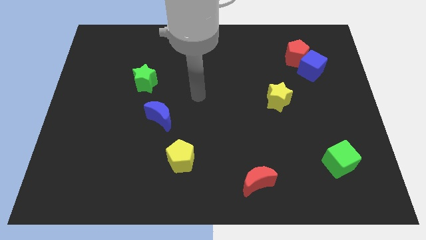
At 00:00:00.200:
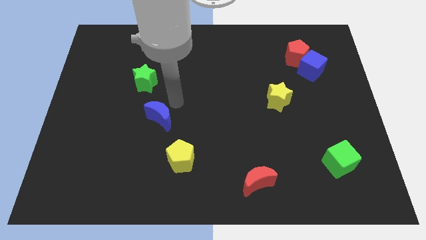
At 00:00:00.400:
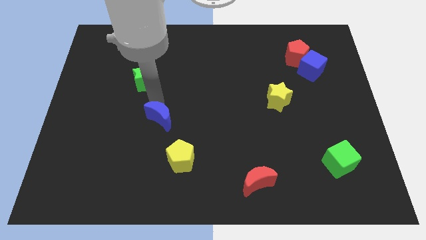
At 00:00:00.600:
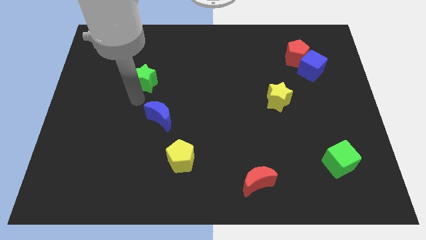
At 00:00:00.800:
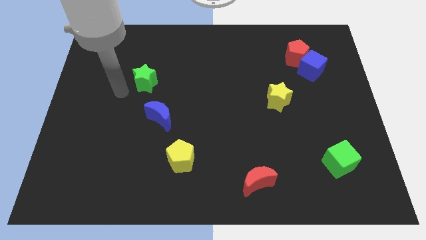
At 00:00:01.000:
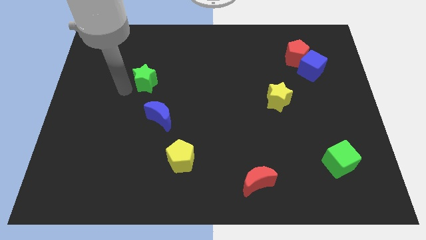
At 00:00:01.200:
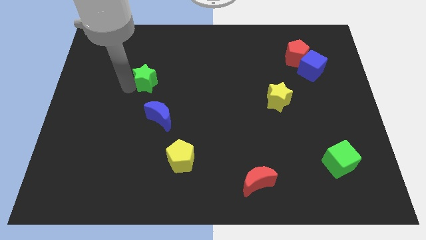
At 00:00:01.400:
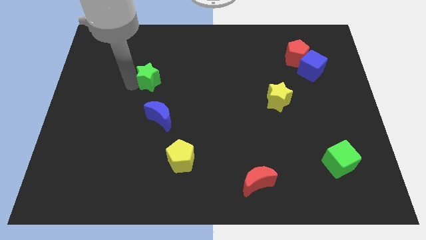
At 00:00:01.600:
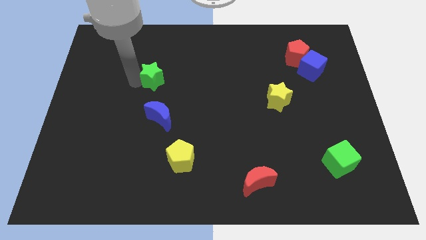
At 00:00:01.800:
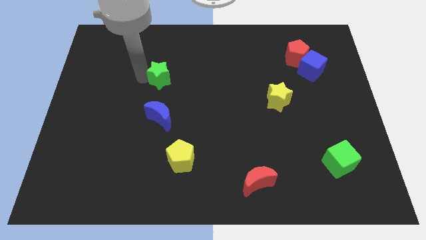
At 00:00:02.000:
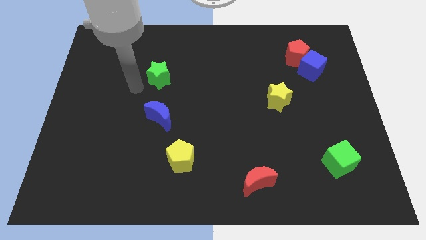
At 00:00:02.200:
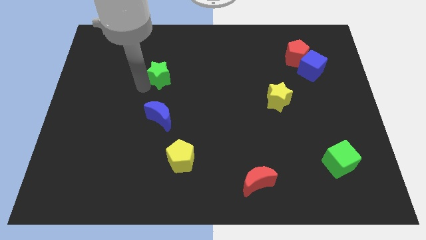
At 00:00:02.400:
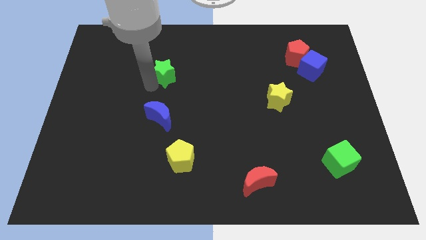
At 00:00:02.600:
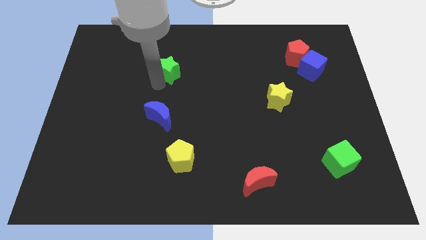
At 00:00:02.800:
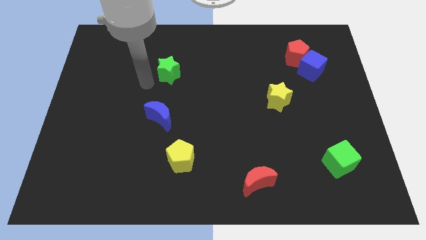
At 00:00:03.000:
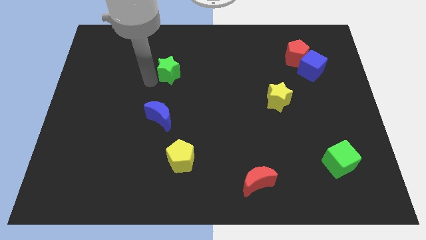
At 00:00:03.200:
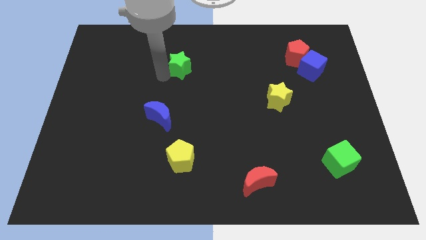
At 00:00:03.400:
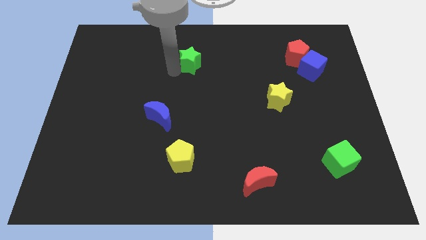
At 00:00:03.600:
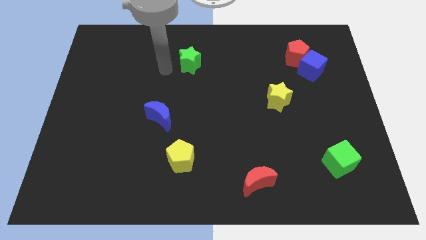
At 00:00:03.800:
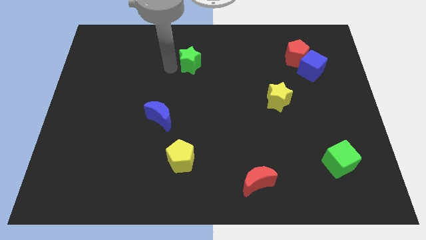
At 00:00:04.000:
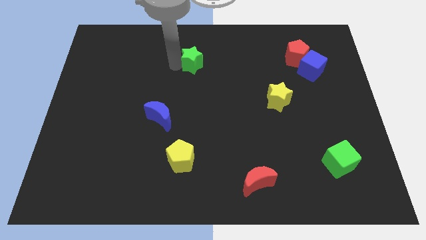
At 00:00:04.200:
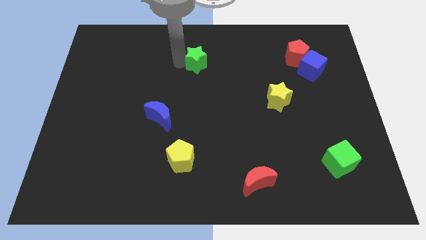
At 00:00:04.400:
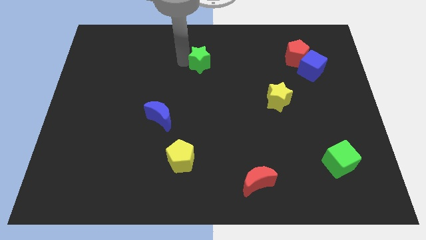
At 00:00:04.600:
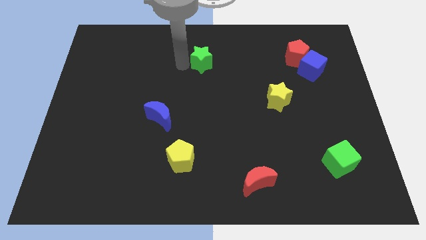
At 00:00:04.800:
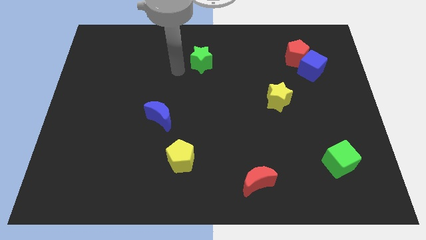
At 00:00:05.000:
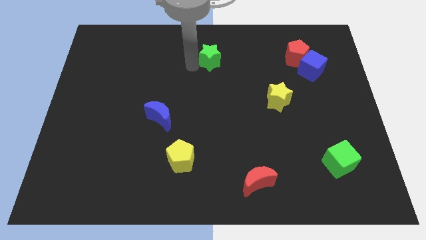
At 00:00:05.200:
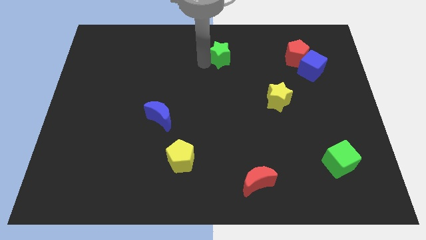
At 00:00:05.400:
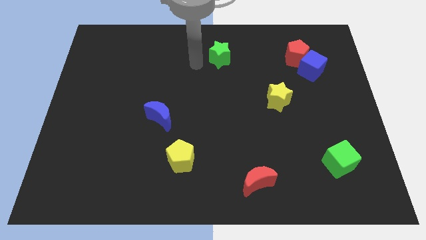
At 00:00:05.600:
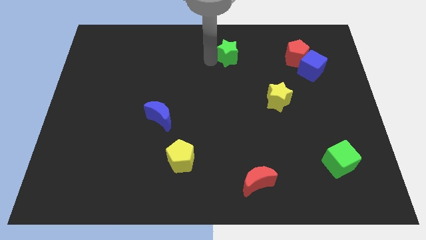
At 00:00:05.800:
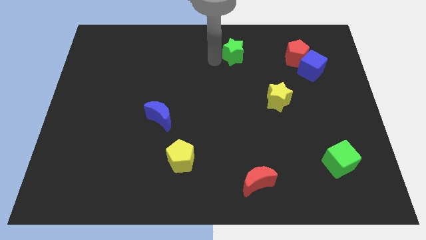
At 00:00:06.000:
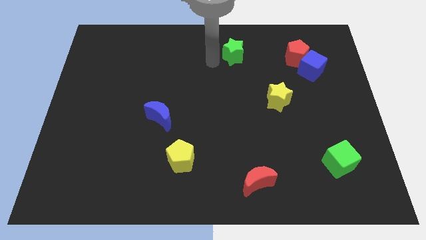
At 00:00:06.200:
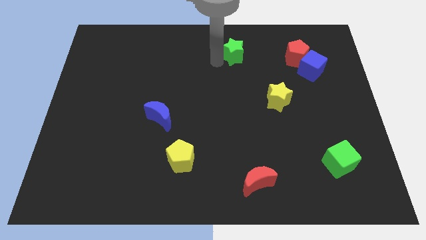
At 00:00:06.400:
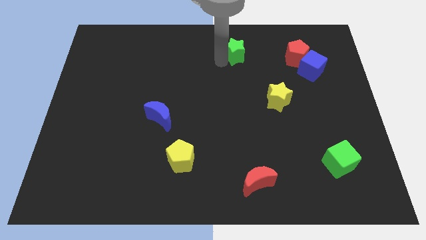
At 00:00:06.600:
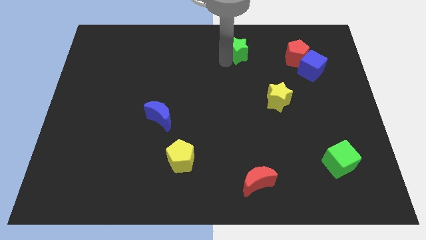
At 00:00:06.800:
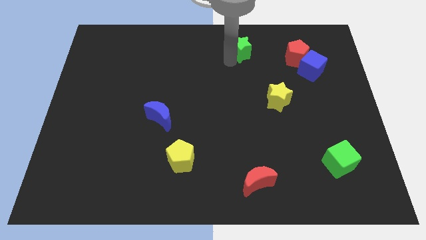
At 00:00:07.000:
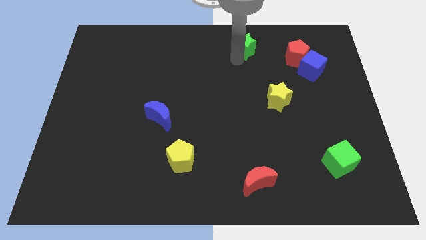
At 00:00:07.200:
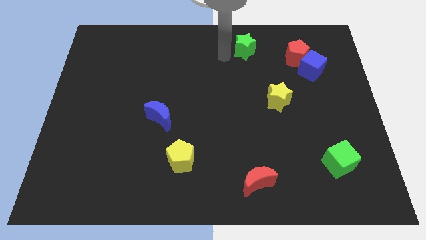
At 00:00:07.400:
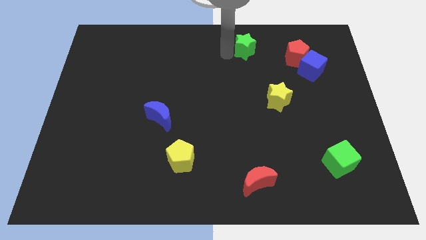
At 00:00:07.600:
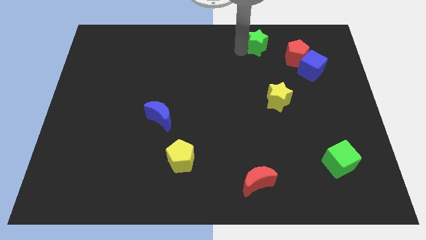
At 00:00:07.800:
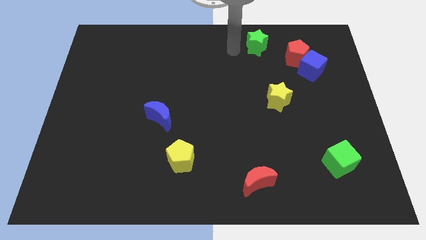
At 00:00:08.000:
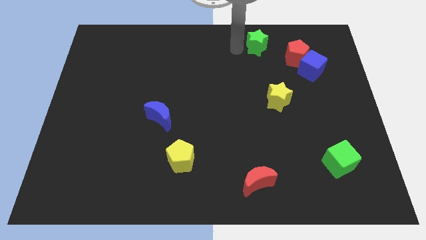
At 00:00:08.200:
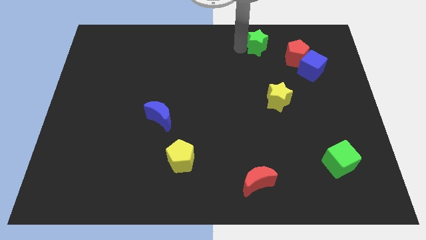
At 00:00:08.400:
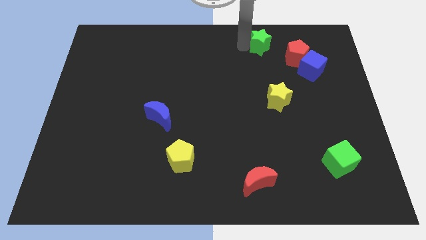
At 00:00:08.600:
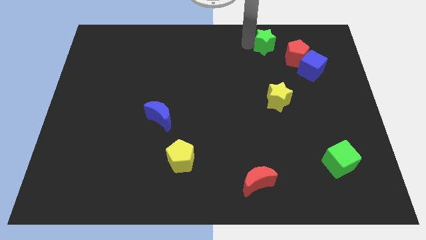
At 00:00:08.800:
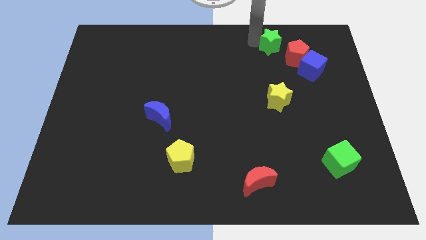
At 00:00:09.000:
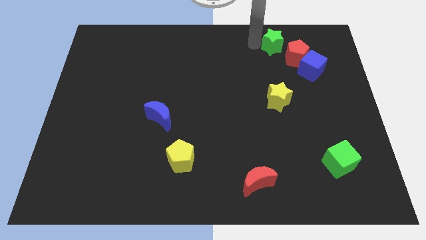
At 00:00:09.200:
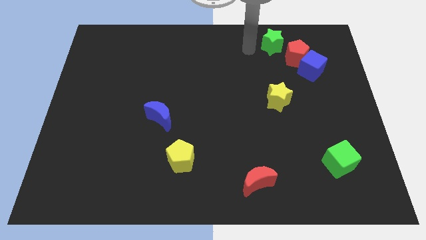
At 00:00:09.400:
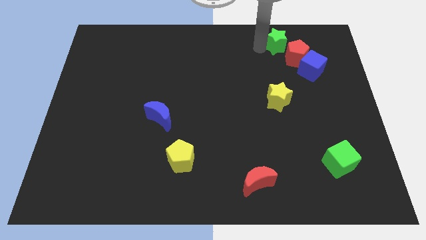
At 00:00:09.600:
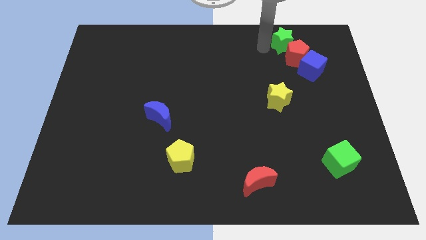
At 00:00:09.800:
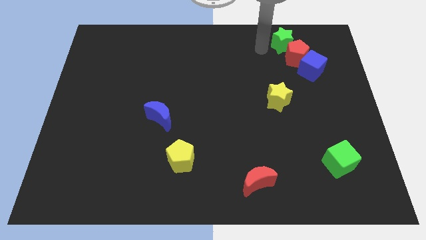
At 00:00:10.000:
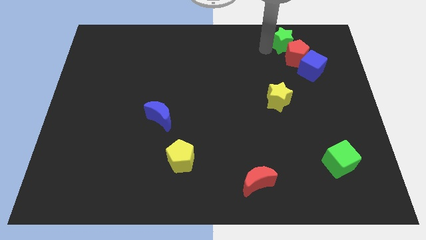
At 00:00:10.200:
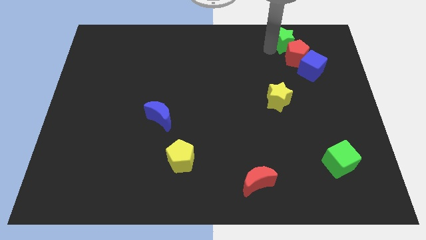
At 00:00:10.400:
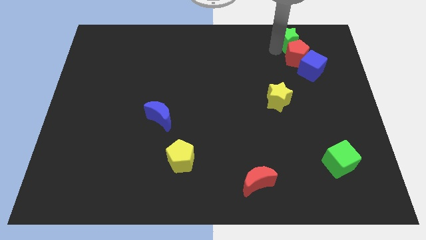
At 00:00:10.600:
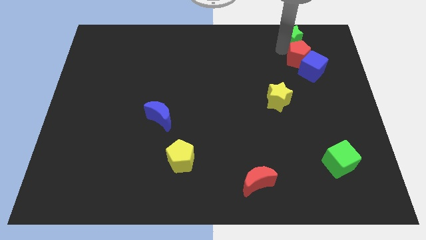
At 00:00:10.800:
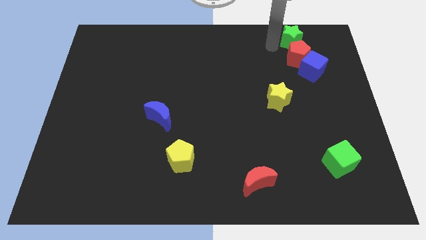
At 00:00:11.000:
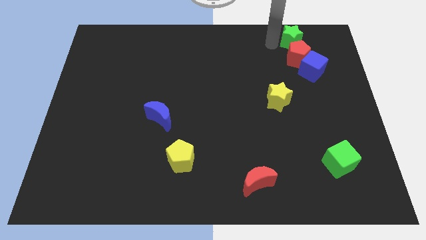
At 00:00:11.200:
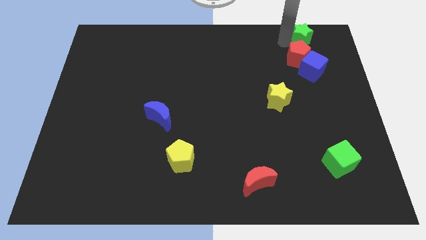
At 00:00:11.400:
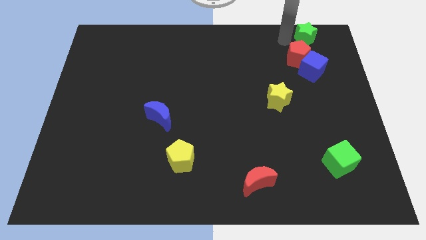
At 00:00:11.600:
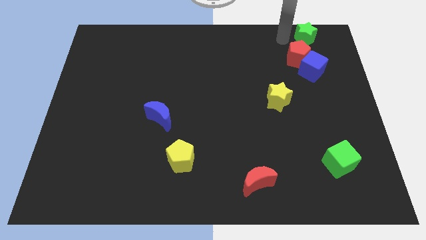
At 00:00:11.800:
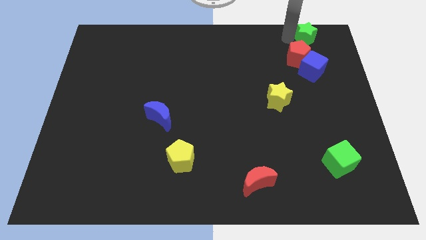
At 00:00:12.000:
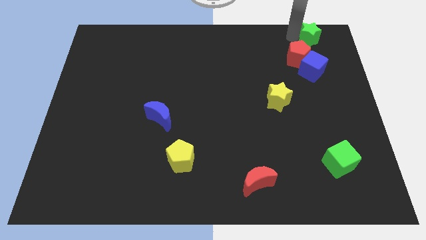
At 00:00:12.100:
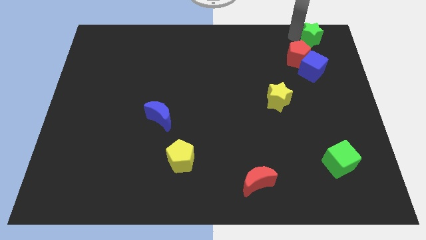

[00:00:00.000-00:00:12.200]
slide the green star to the top right corner
